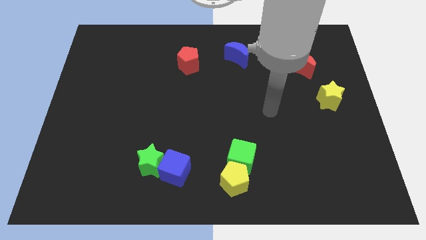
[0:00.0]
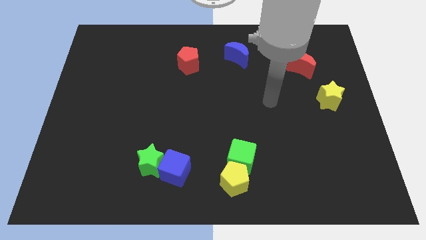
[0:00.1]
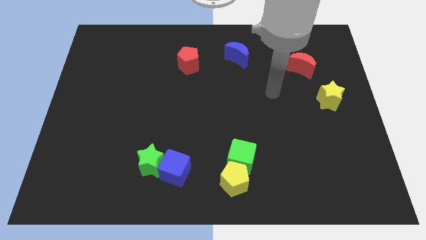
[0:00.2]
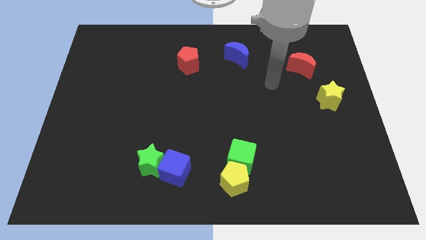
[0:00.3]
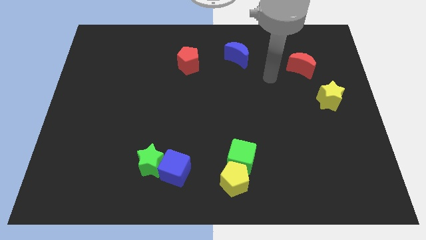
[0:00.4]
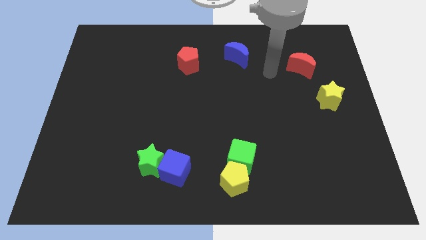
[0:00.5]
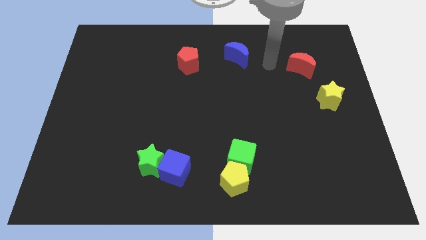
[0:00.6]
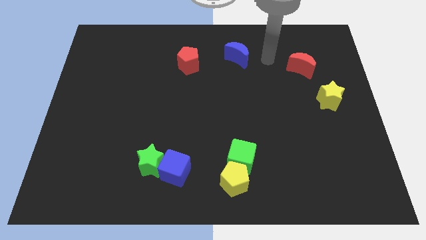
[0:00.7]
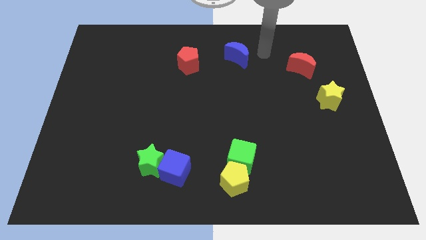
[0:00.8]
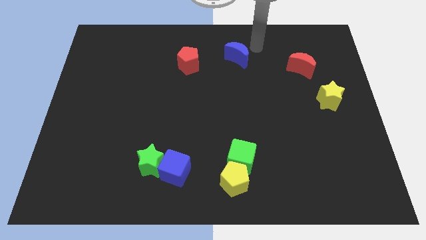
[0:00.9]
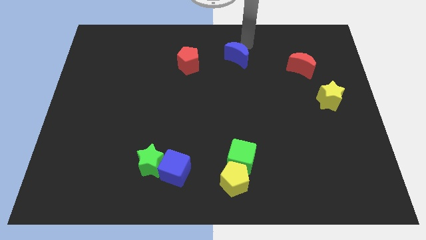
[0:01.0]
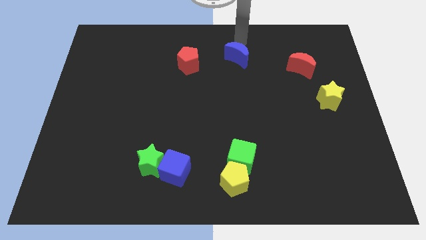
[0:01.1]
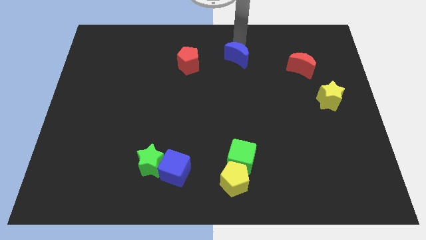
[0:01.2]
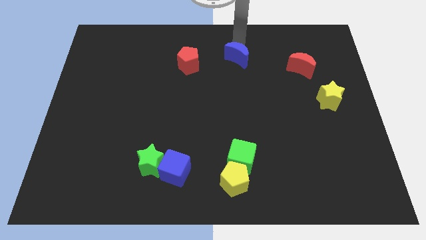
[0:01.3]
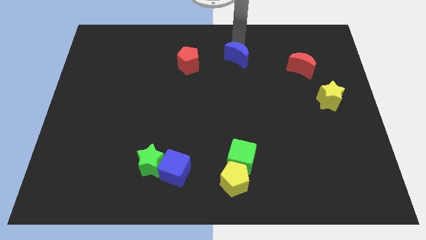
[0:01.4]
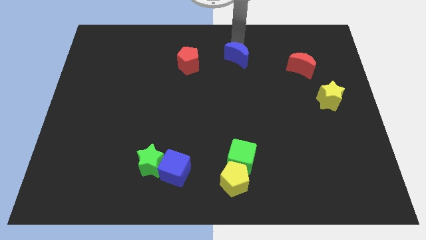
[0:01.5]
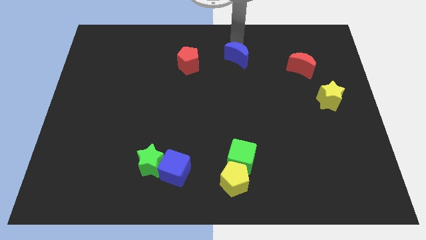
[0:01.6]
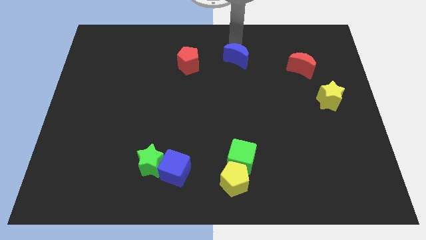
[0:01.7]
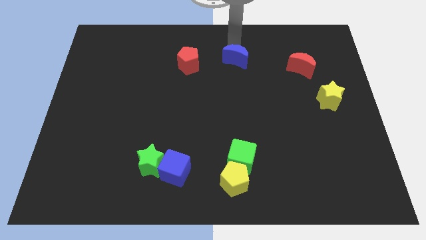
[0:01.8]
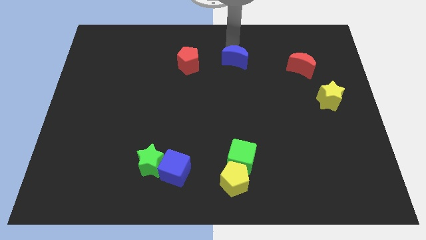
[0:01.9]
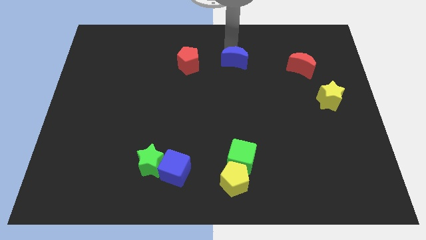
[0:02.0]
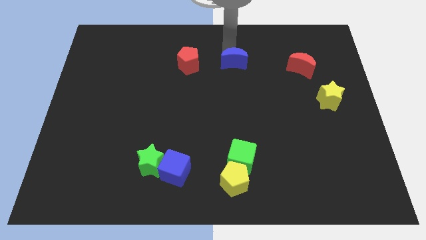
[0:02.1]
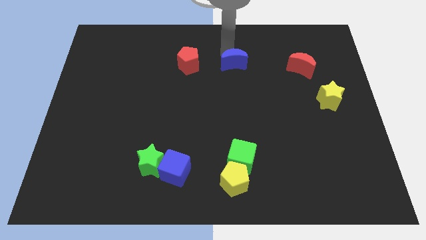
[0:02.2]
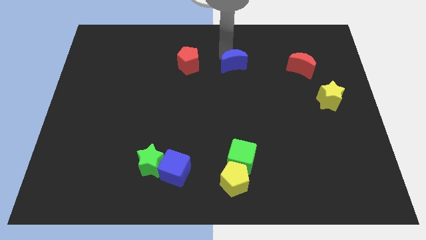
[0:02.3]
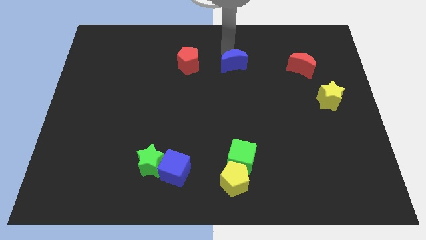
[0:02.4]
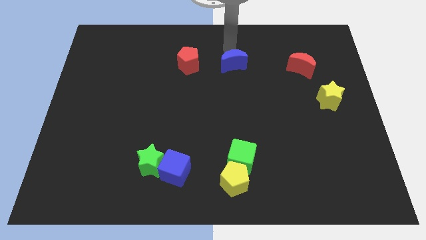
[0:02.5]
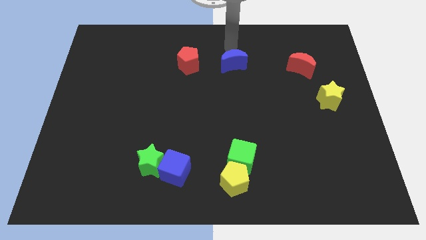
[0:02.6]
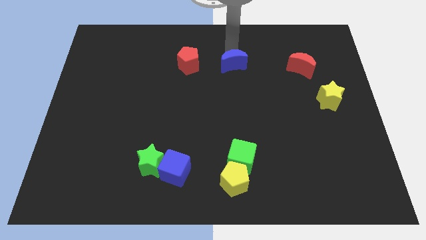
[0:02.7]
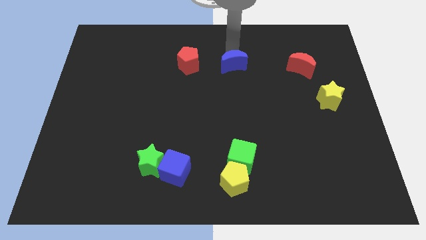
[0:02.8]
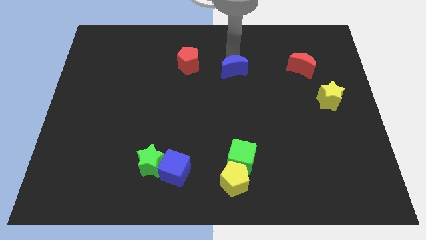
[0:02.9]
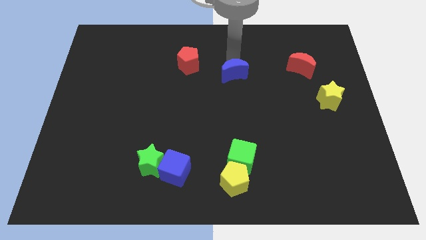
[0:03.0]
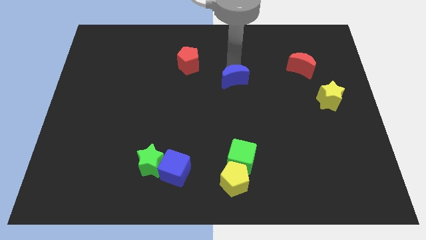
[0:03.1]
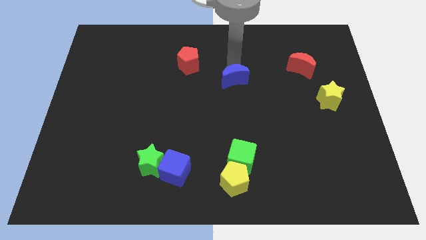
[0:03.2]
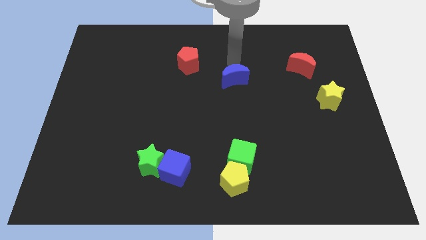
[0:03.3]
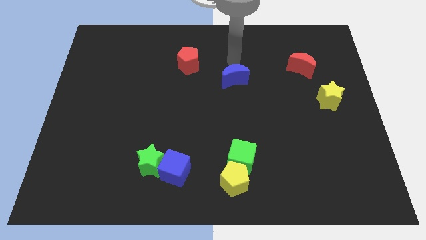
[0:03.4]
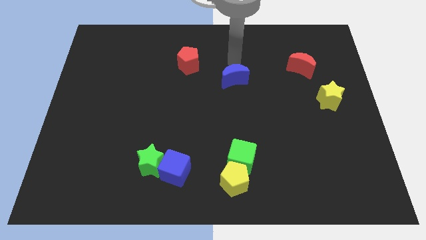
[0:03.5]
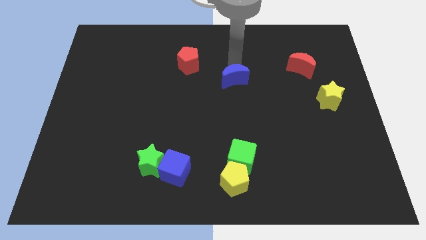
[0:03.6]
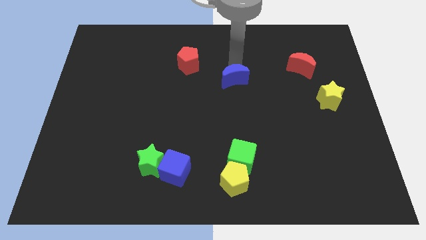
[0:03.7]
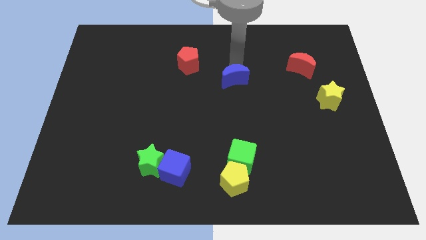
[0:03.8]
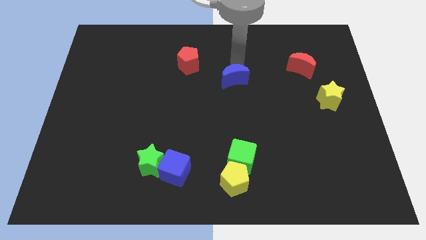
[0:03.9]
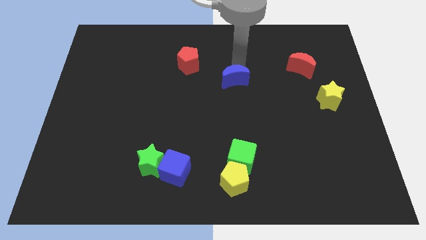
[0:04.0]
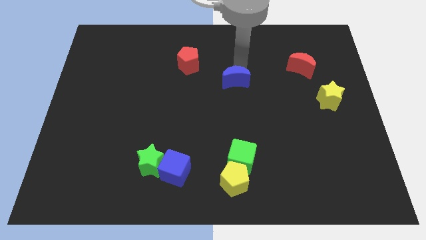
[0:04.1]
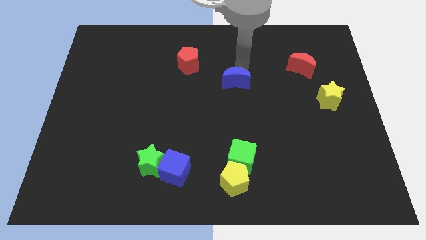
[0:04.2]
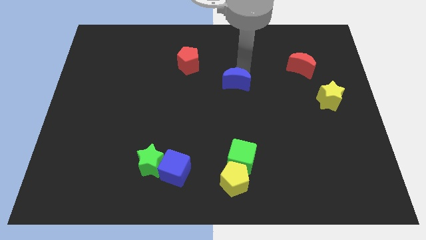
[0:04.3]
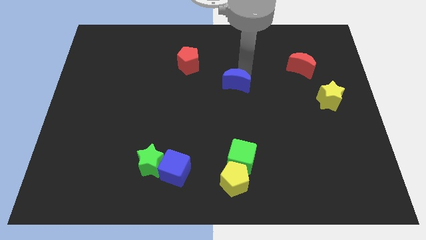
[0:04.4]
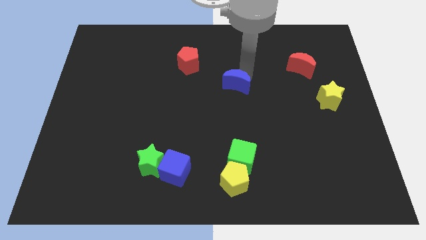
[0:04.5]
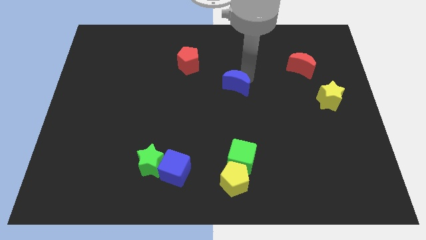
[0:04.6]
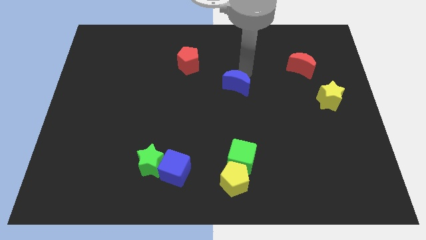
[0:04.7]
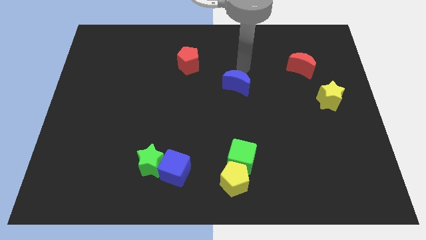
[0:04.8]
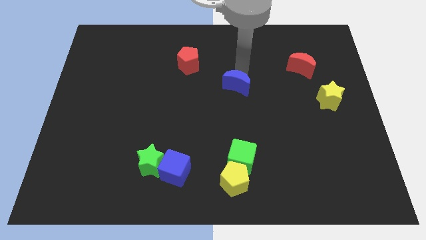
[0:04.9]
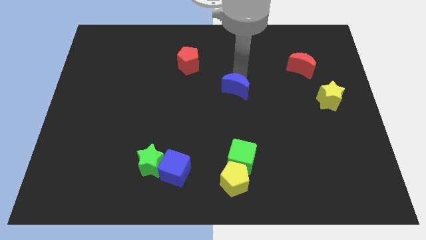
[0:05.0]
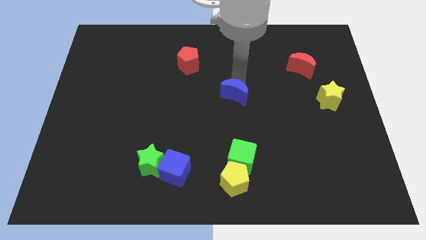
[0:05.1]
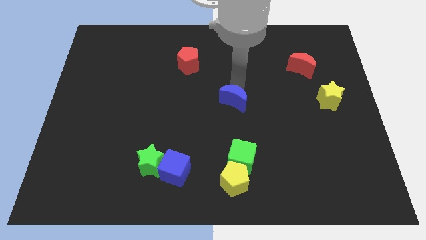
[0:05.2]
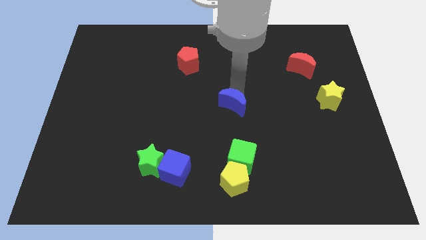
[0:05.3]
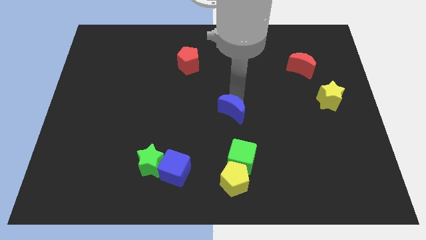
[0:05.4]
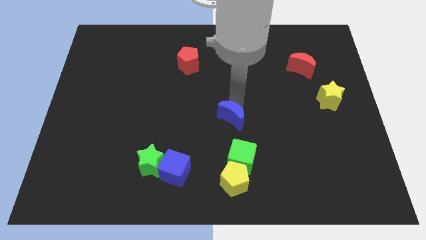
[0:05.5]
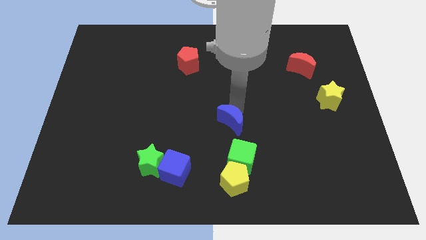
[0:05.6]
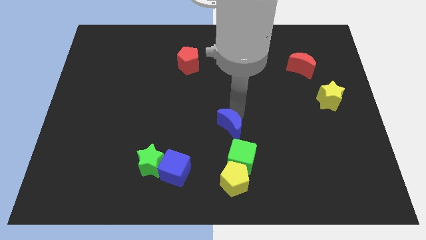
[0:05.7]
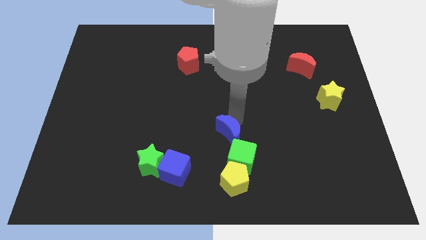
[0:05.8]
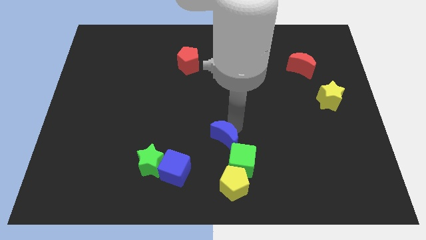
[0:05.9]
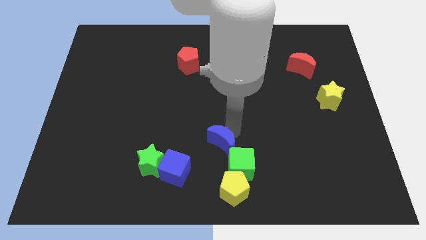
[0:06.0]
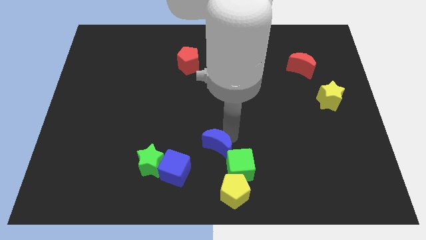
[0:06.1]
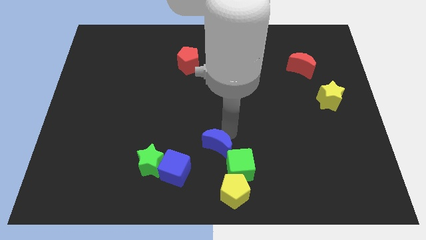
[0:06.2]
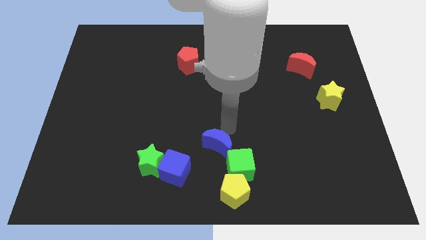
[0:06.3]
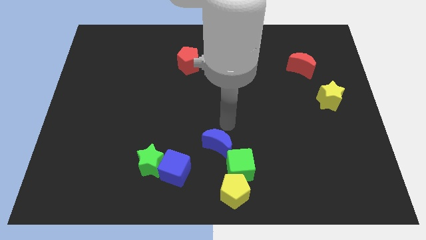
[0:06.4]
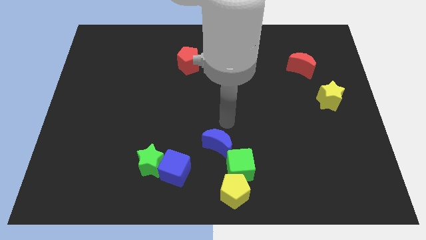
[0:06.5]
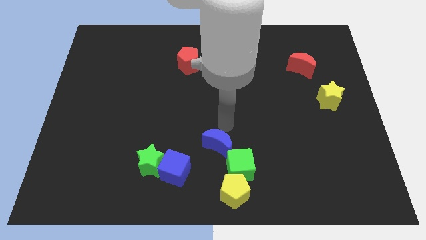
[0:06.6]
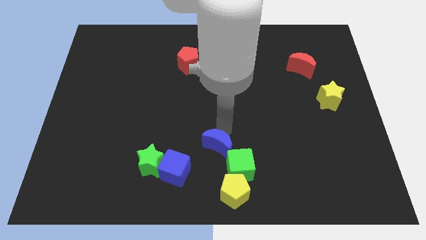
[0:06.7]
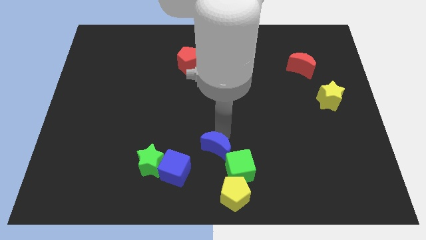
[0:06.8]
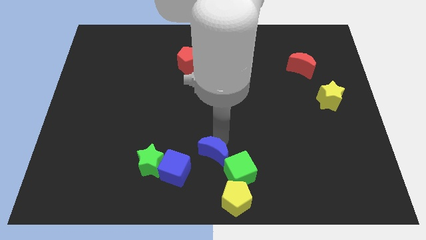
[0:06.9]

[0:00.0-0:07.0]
put the blue moon to the bottom
